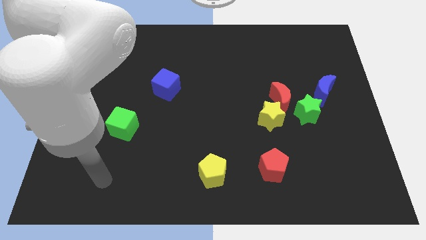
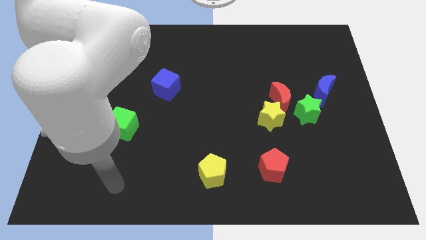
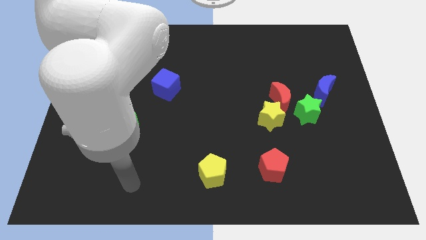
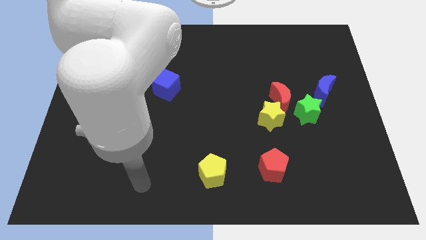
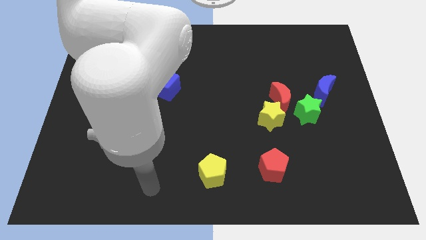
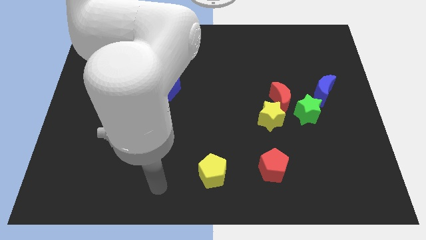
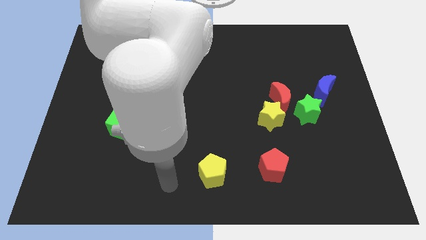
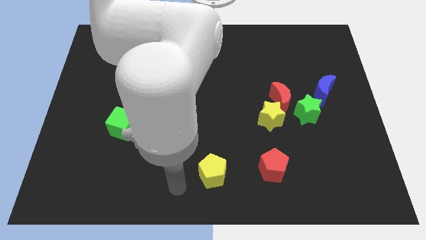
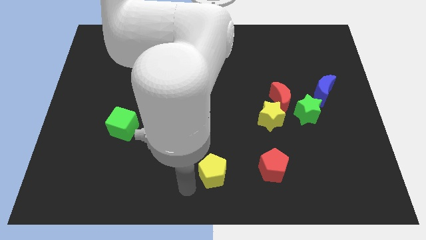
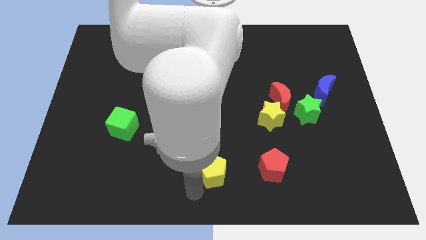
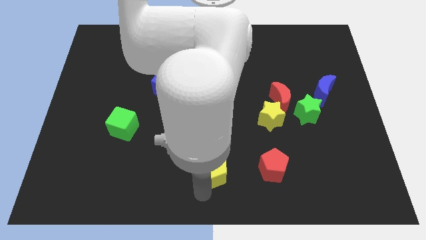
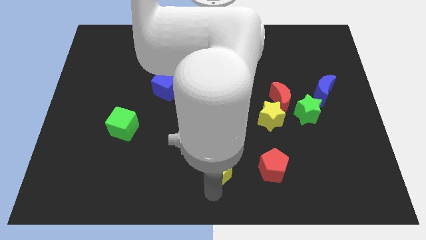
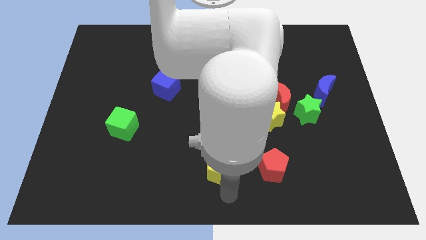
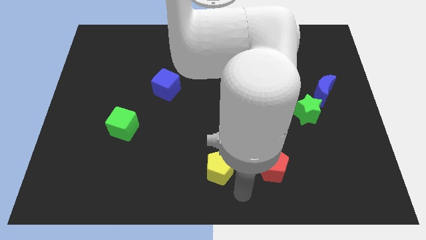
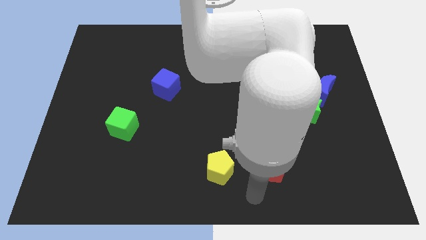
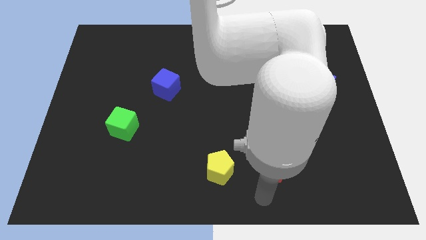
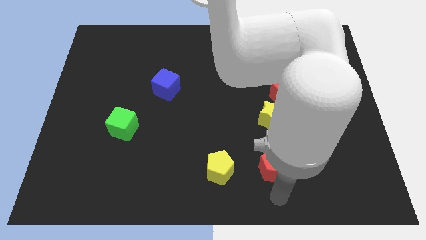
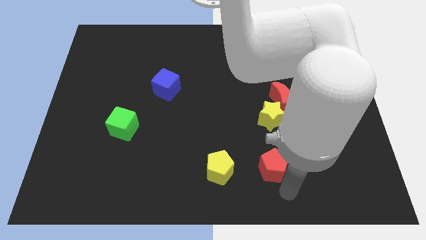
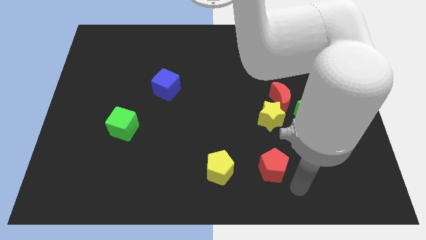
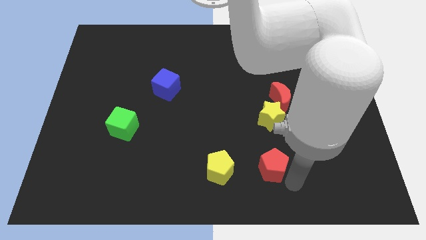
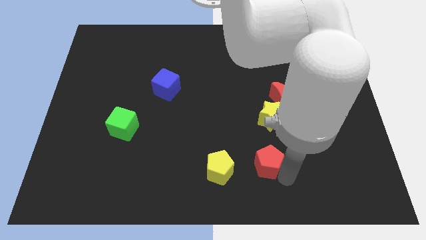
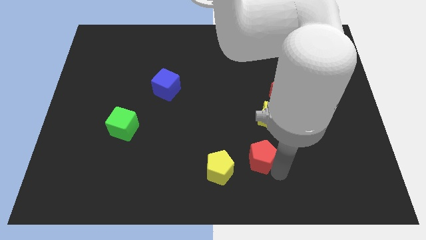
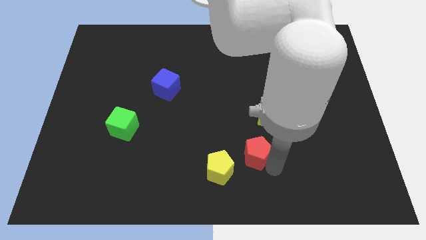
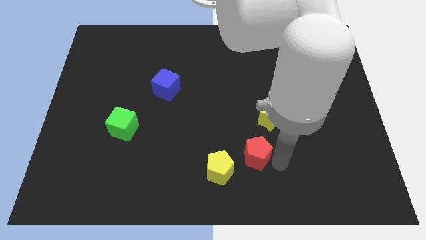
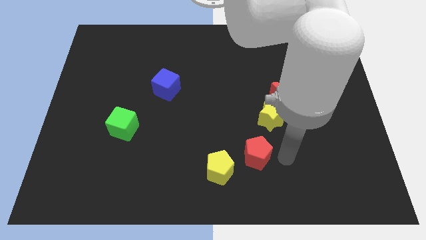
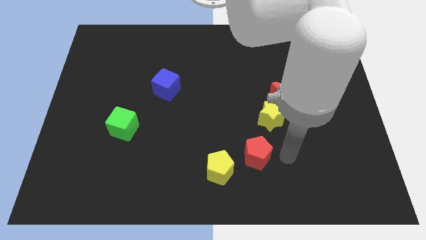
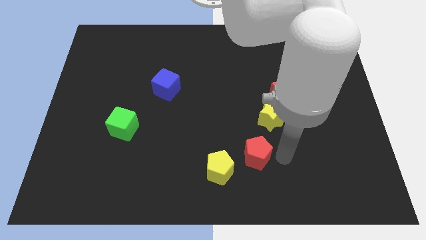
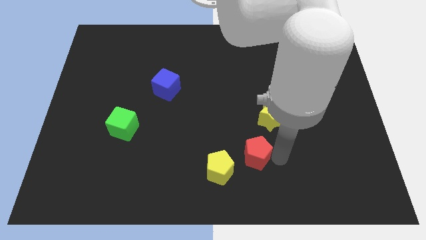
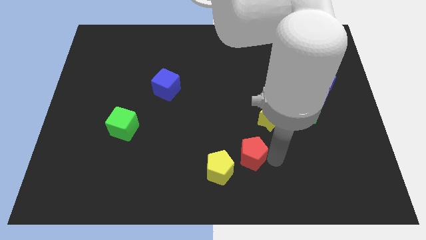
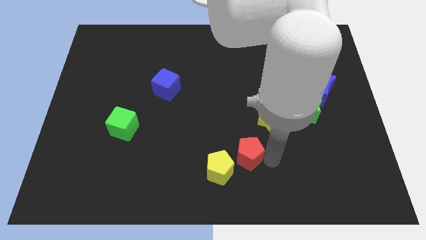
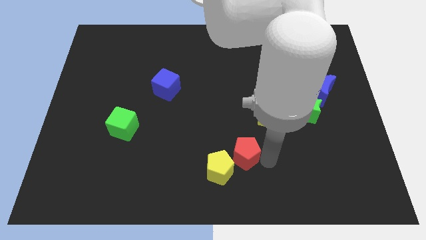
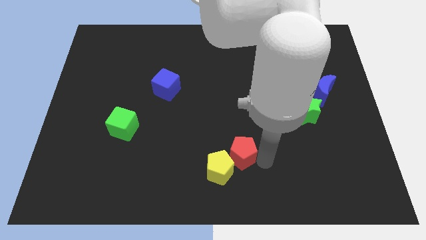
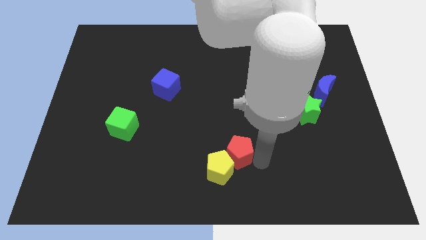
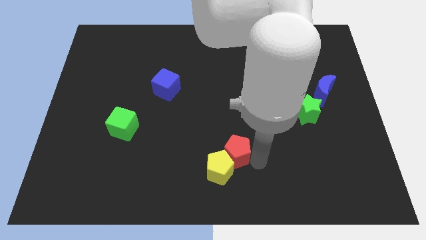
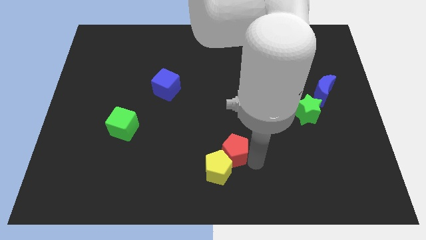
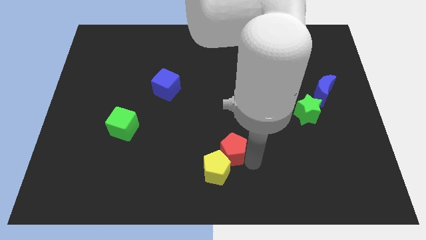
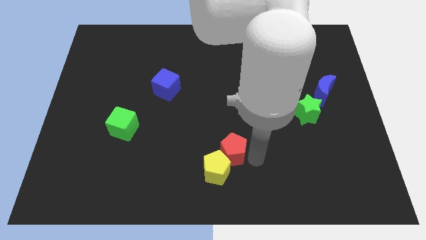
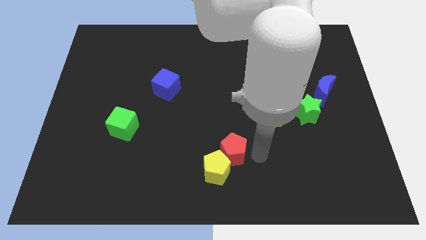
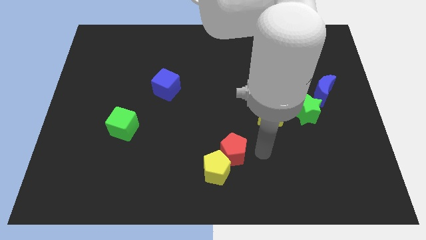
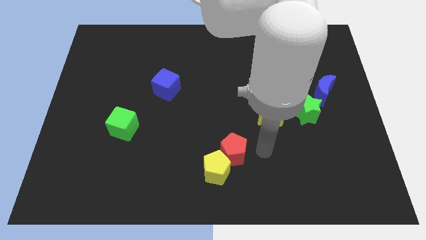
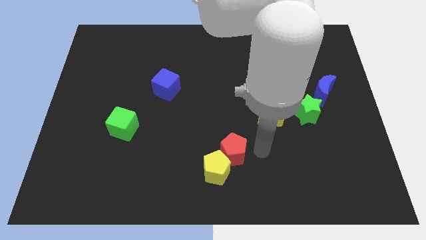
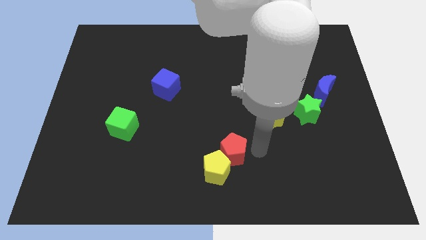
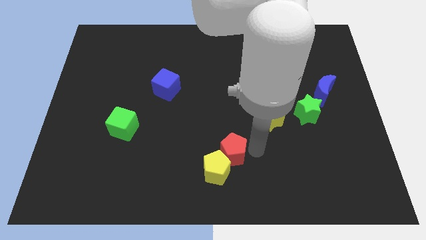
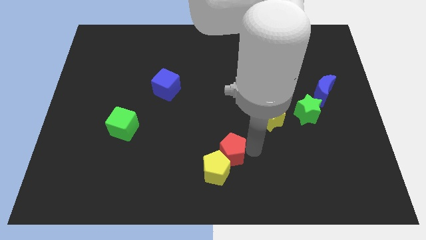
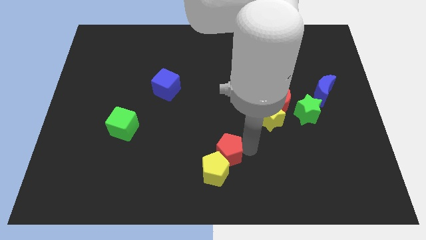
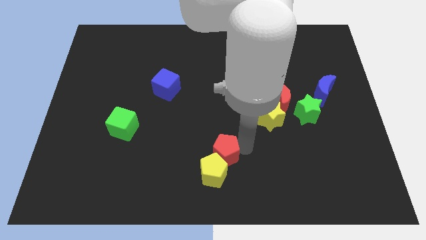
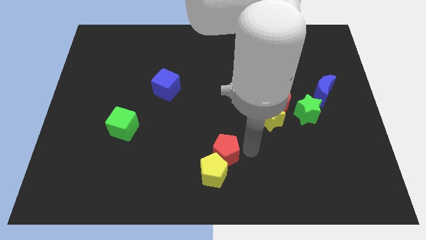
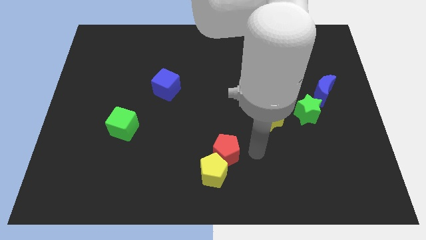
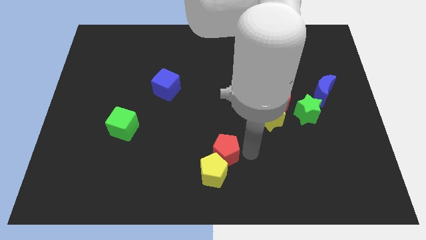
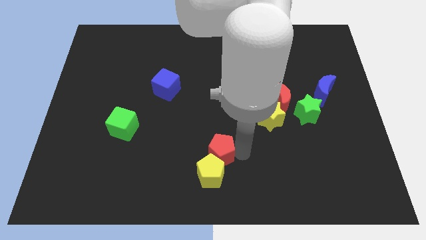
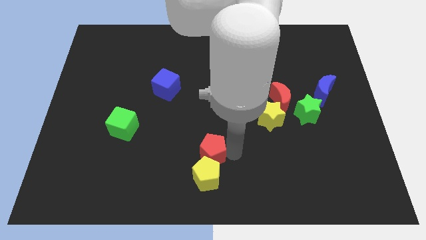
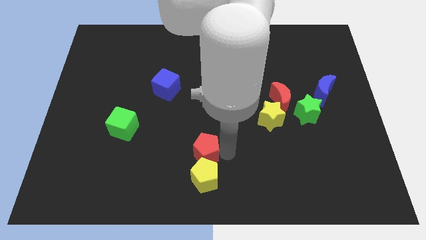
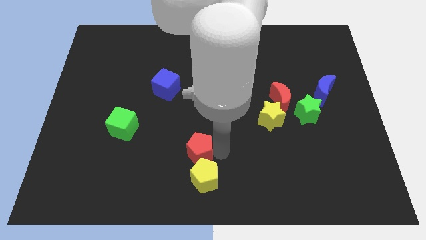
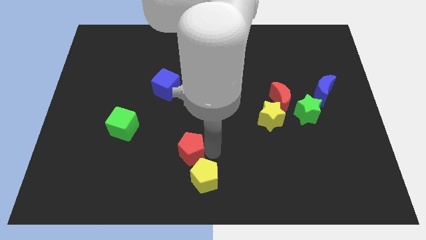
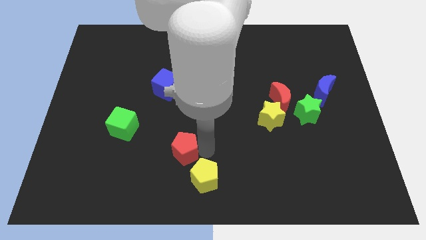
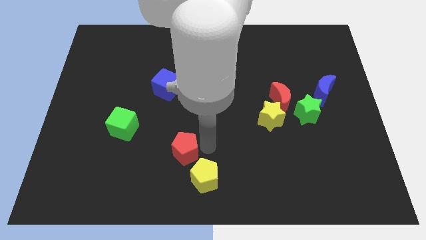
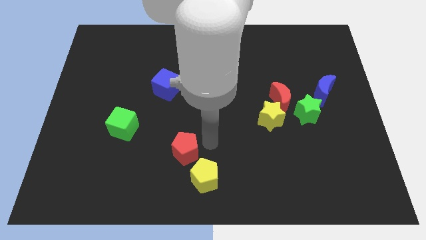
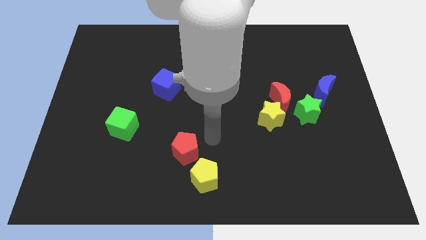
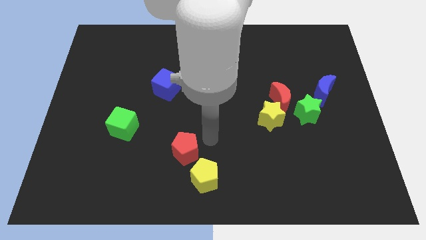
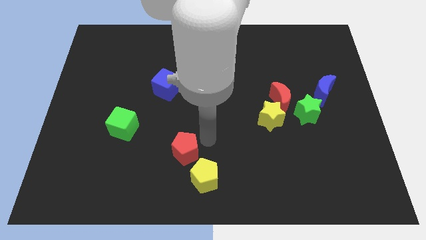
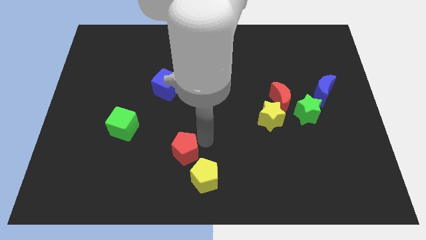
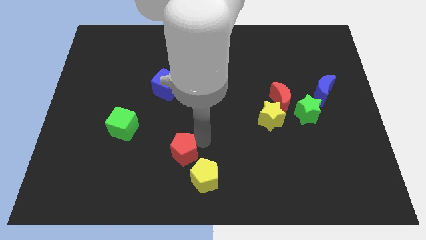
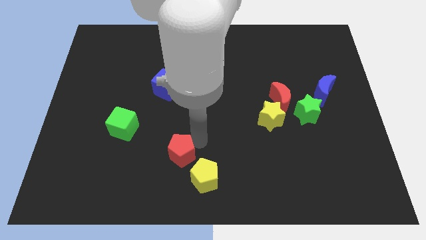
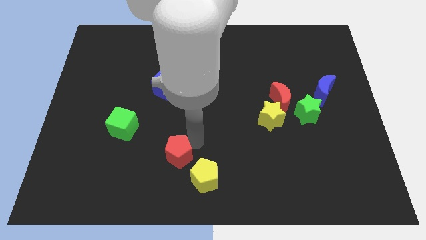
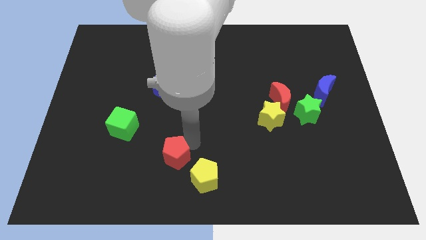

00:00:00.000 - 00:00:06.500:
slide the red pentagon left

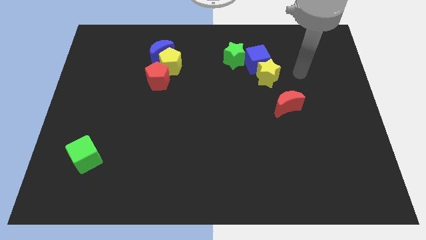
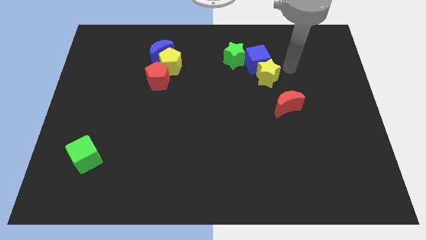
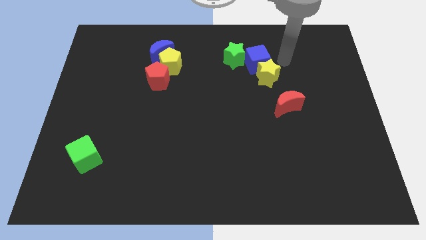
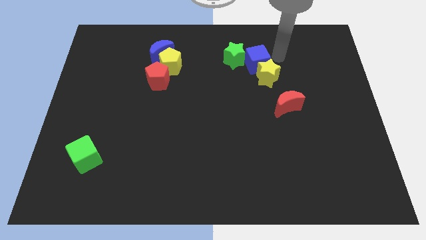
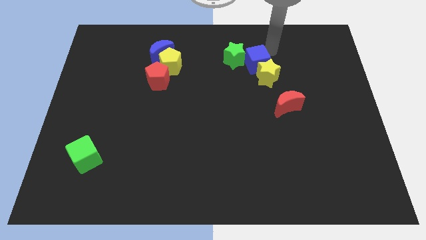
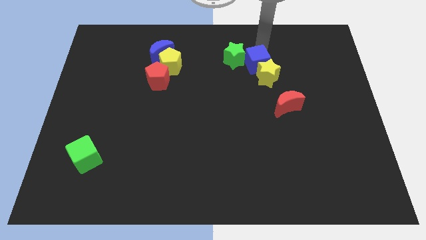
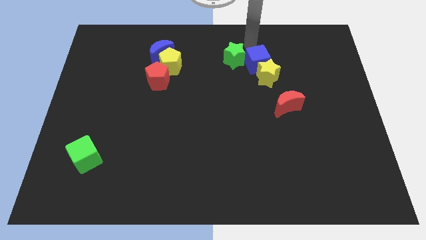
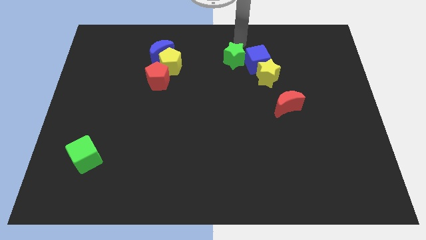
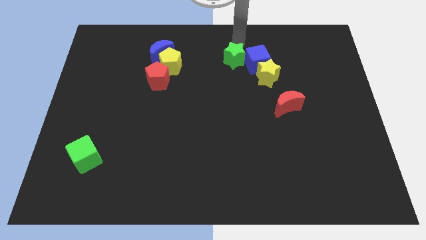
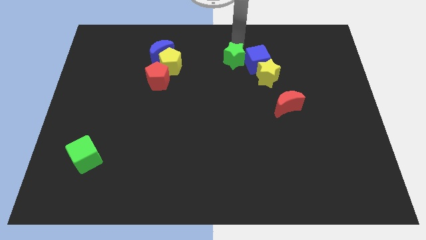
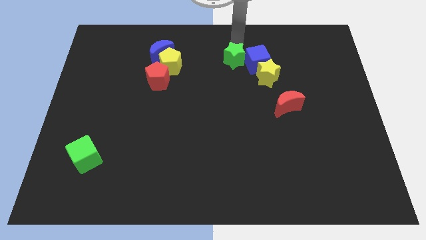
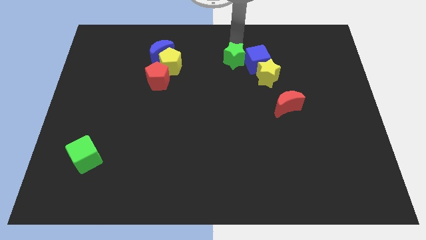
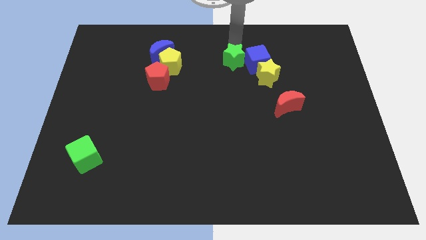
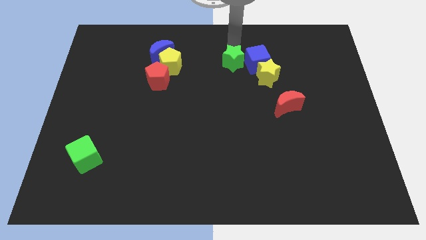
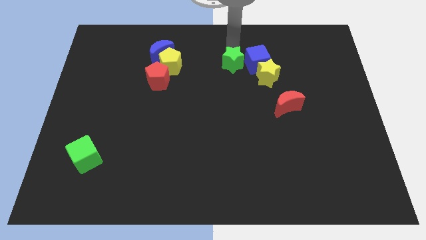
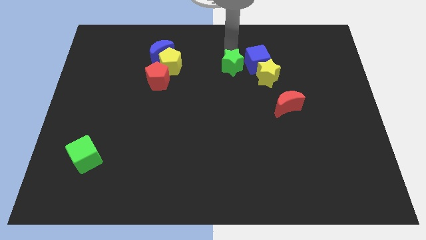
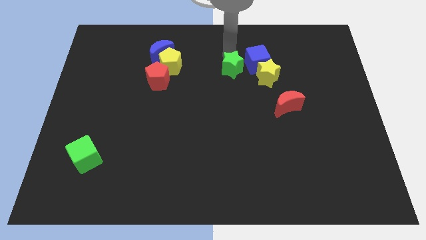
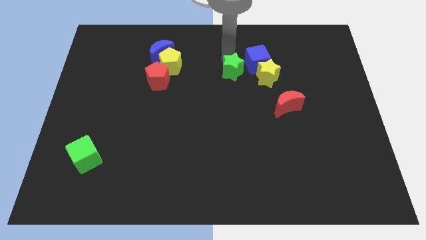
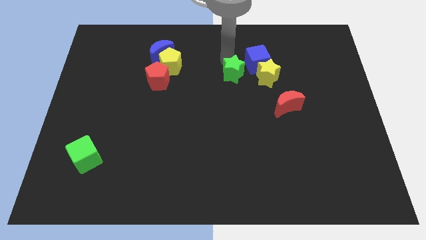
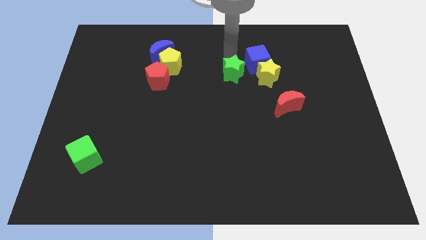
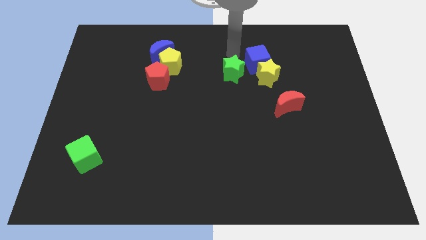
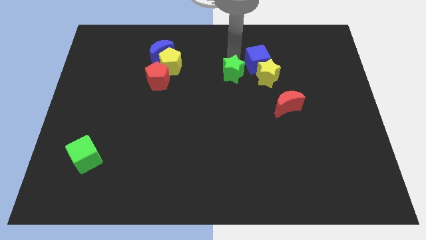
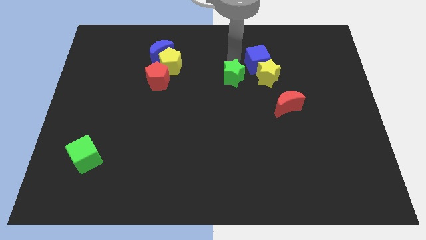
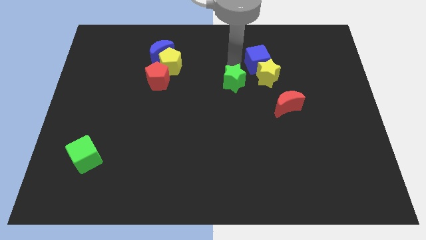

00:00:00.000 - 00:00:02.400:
push the green star a bit down
